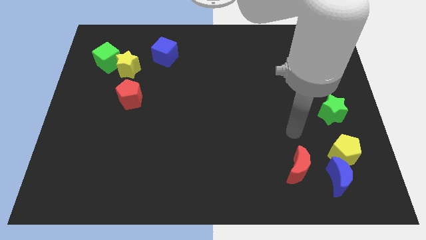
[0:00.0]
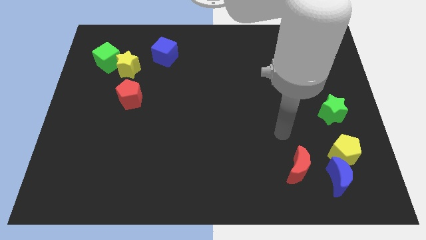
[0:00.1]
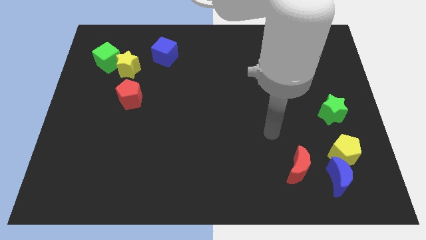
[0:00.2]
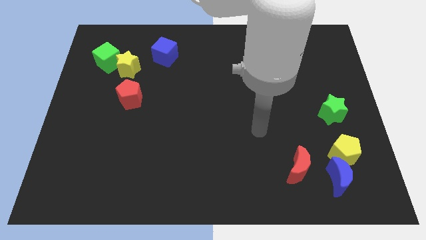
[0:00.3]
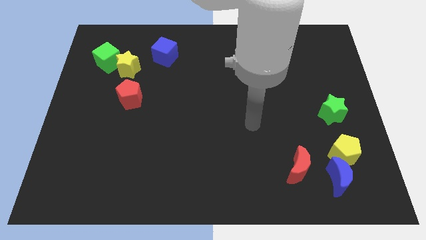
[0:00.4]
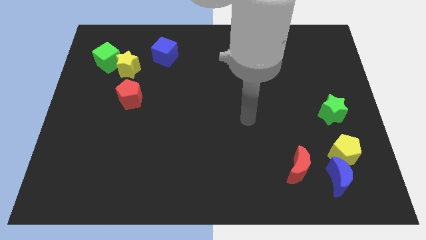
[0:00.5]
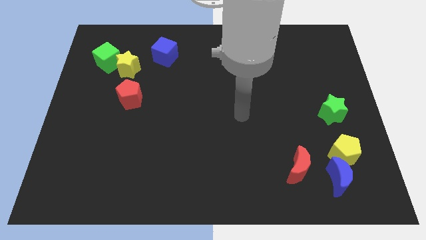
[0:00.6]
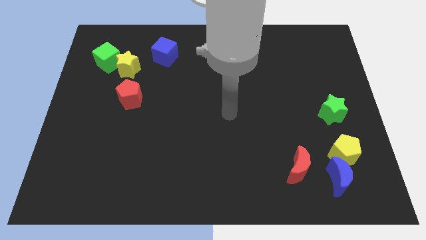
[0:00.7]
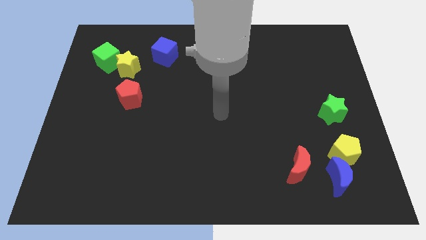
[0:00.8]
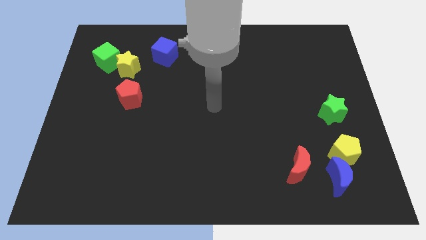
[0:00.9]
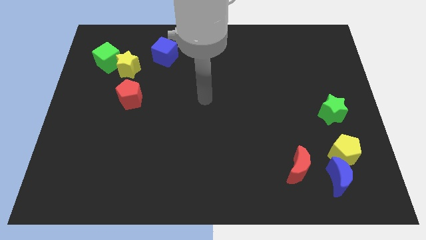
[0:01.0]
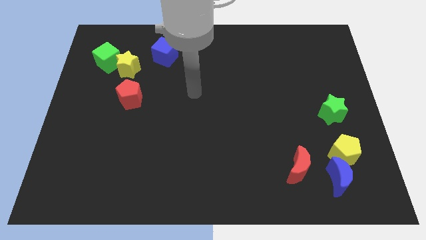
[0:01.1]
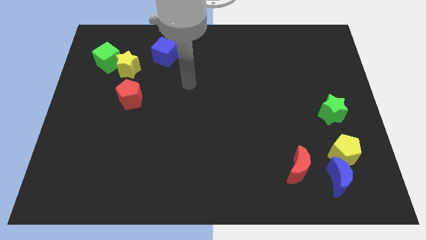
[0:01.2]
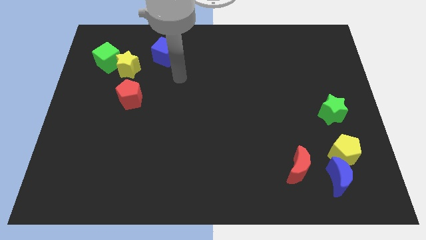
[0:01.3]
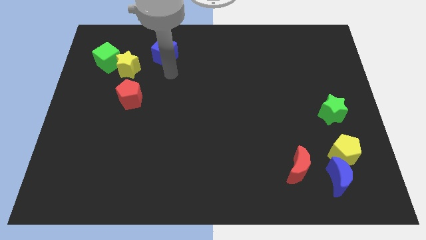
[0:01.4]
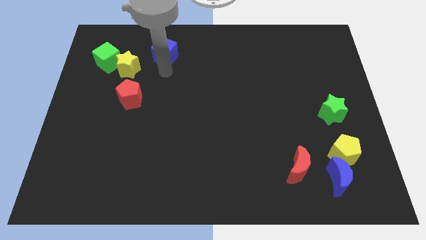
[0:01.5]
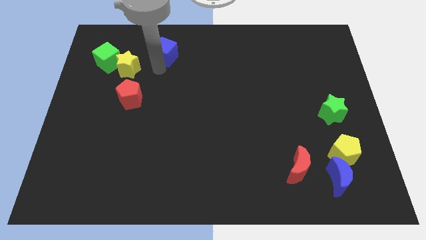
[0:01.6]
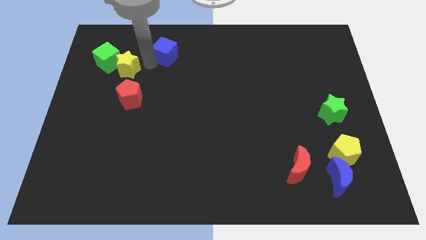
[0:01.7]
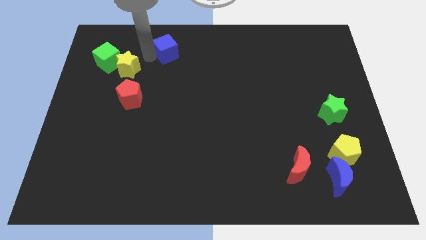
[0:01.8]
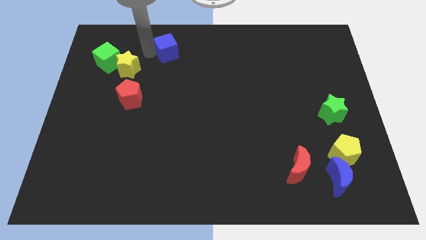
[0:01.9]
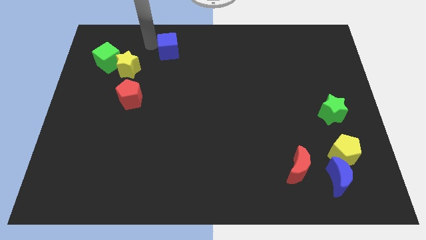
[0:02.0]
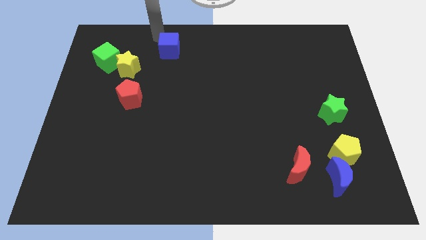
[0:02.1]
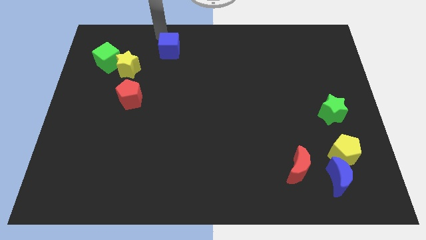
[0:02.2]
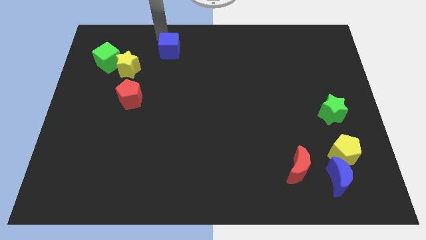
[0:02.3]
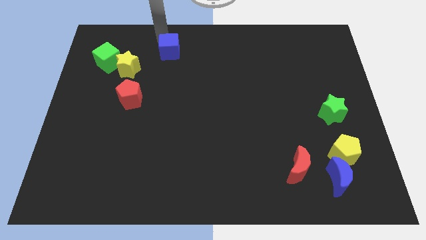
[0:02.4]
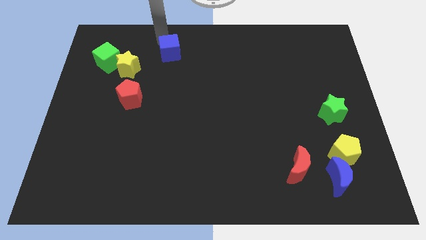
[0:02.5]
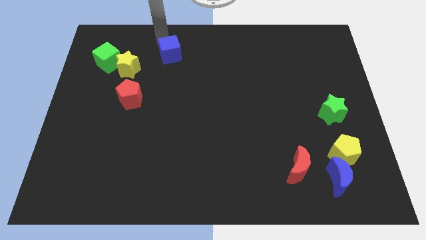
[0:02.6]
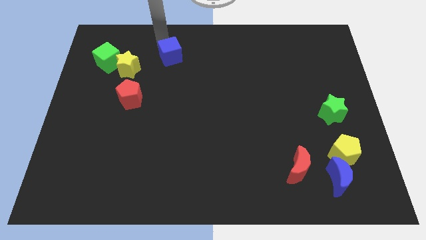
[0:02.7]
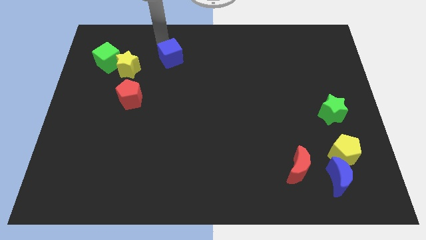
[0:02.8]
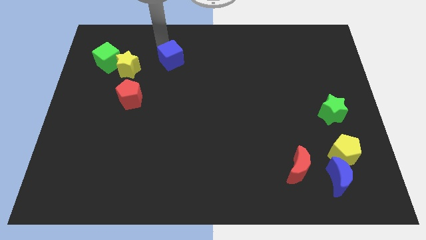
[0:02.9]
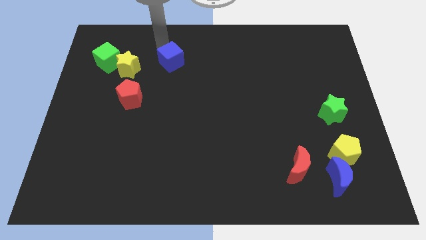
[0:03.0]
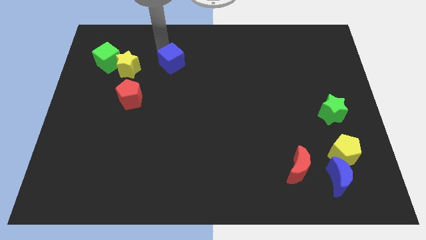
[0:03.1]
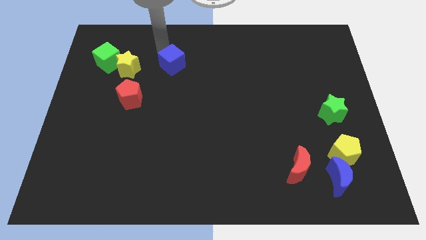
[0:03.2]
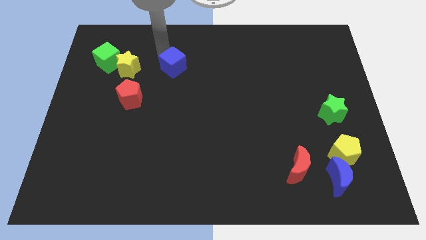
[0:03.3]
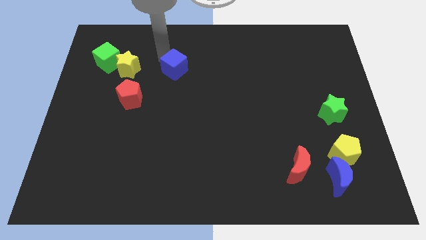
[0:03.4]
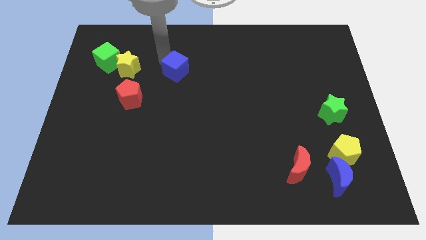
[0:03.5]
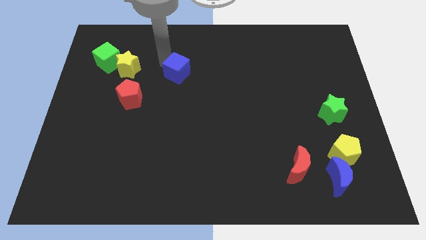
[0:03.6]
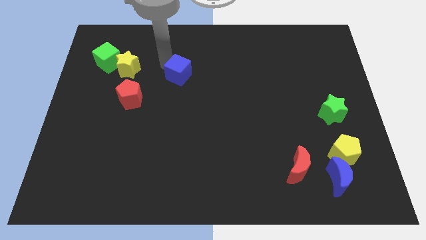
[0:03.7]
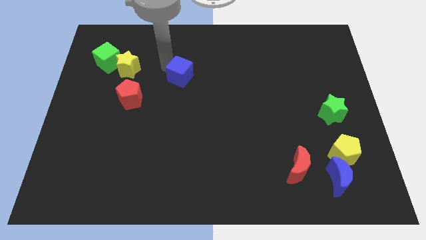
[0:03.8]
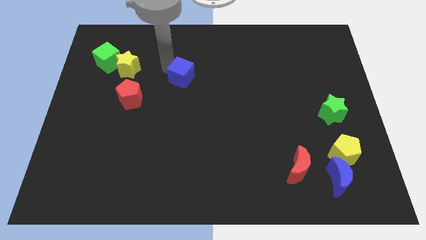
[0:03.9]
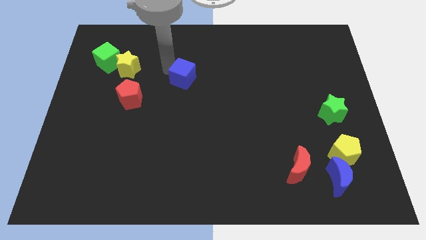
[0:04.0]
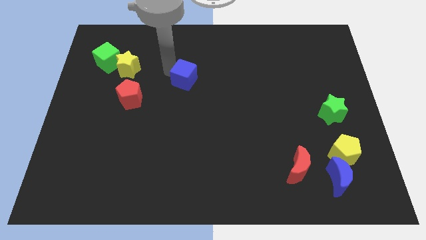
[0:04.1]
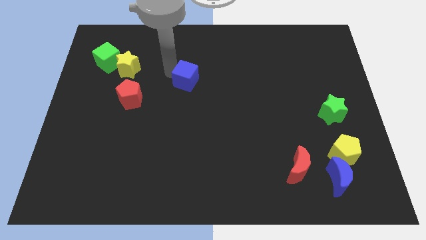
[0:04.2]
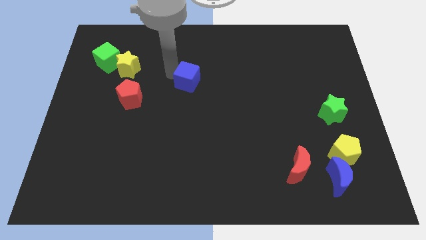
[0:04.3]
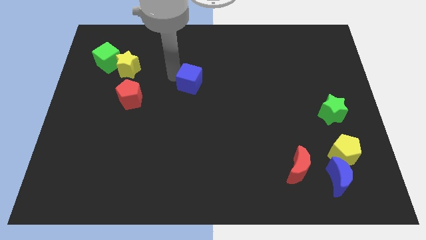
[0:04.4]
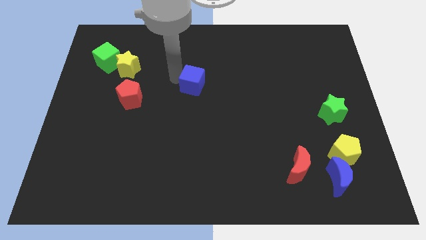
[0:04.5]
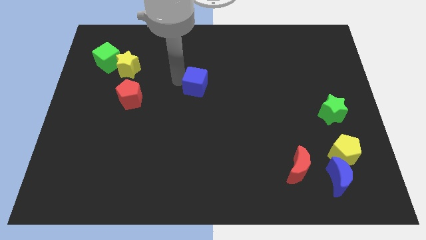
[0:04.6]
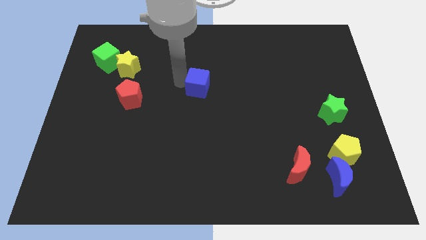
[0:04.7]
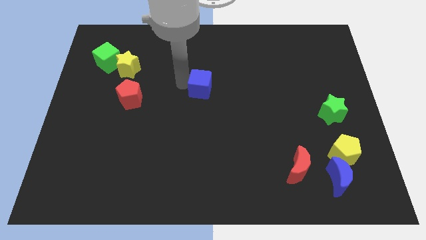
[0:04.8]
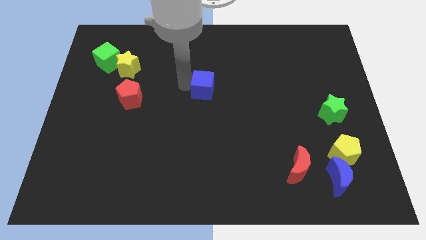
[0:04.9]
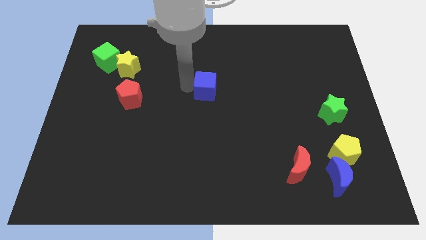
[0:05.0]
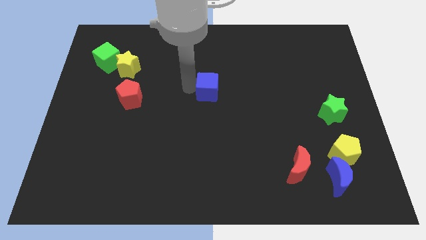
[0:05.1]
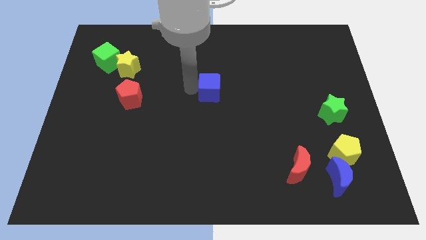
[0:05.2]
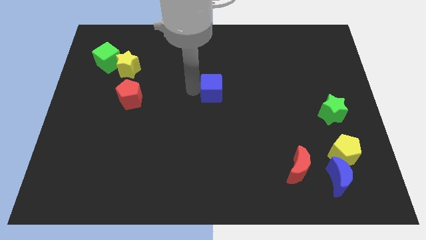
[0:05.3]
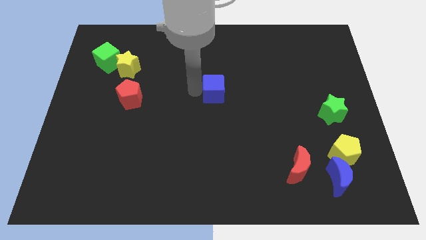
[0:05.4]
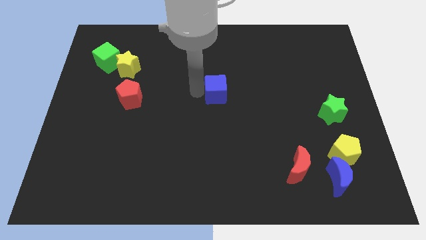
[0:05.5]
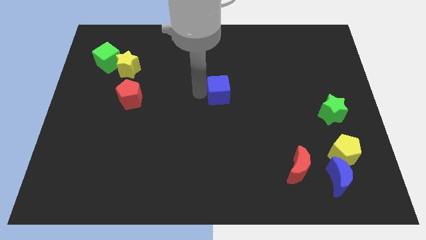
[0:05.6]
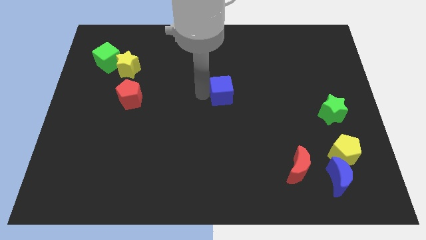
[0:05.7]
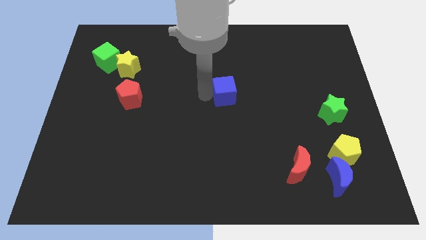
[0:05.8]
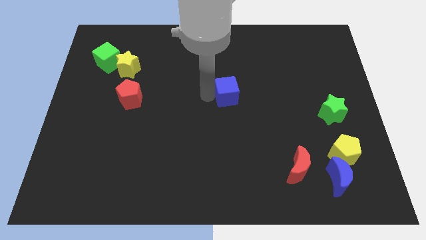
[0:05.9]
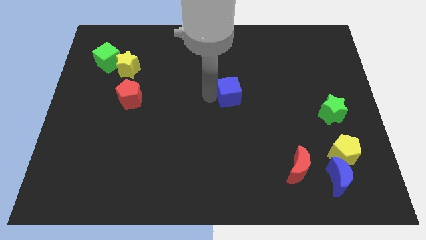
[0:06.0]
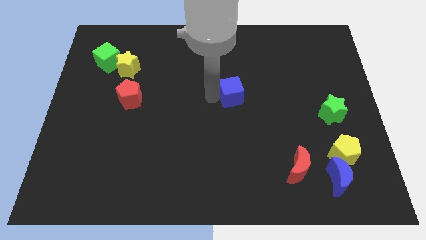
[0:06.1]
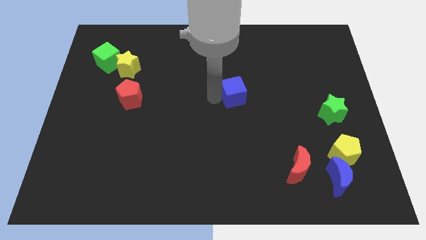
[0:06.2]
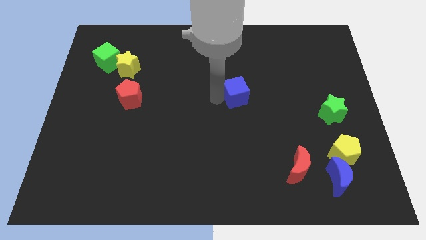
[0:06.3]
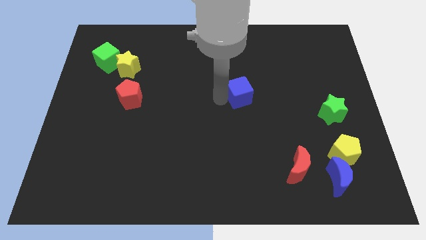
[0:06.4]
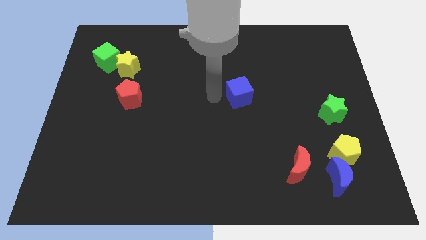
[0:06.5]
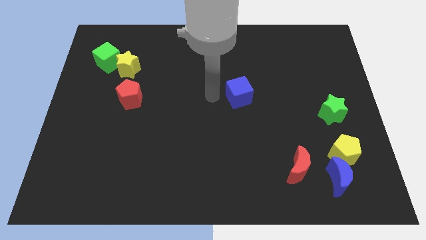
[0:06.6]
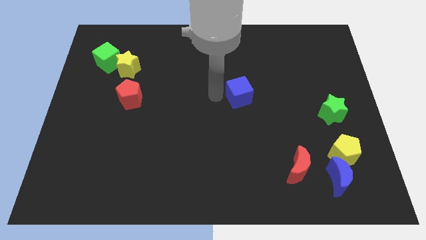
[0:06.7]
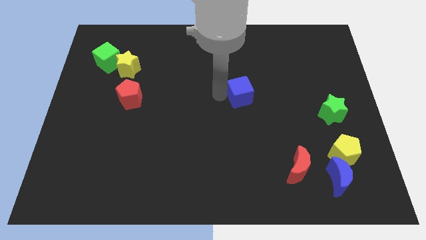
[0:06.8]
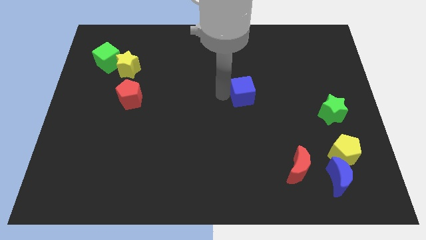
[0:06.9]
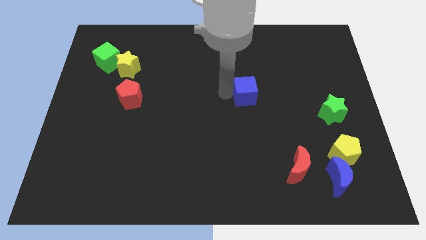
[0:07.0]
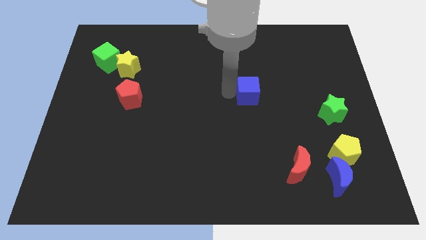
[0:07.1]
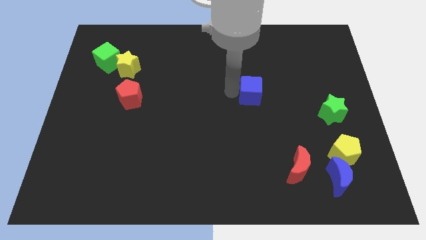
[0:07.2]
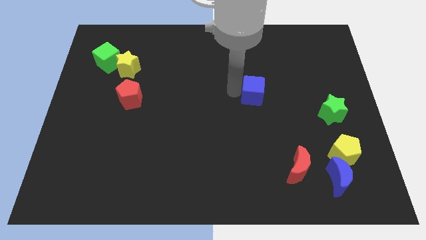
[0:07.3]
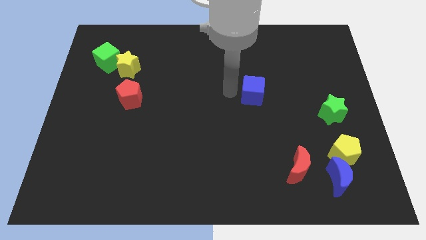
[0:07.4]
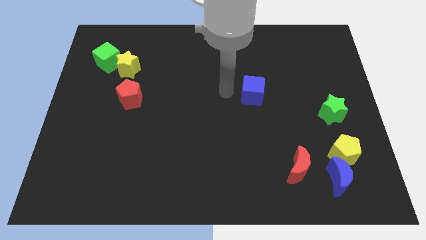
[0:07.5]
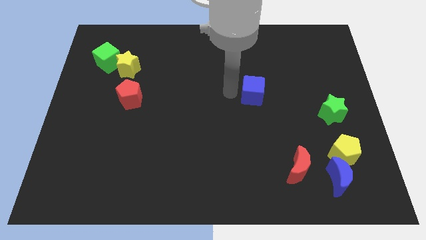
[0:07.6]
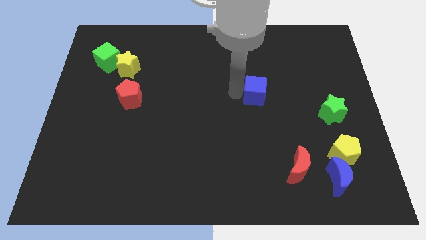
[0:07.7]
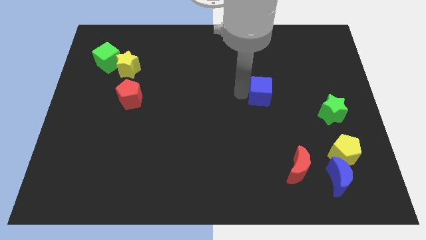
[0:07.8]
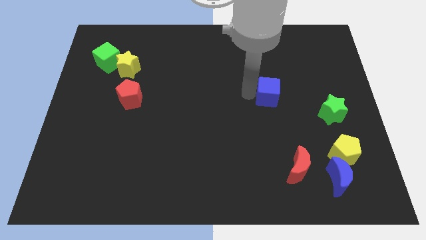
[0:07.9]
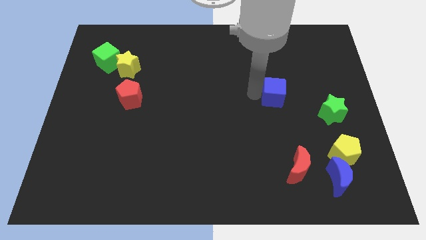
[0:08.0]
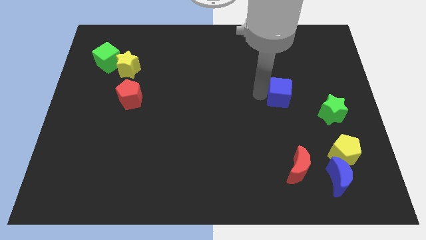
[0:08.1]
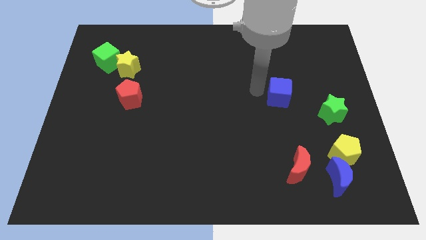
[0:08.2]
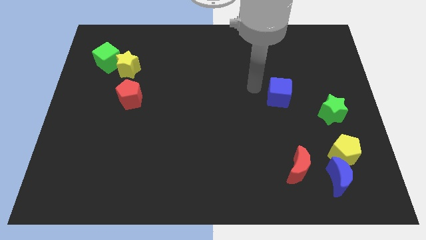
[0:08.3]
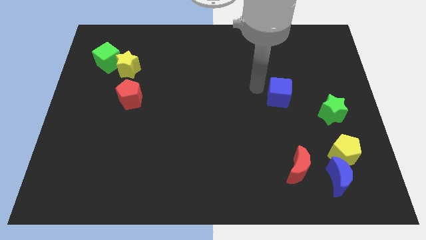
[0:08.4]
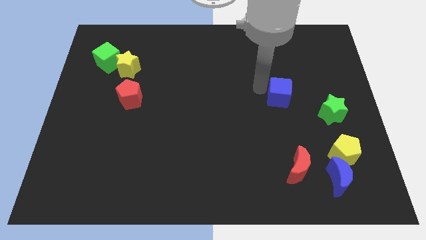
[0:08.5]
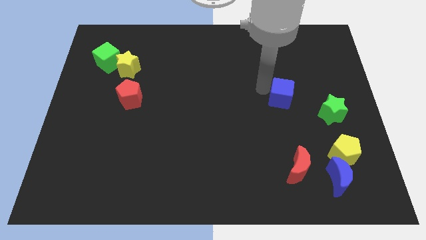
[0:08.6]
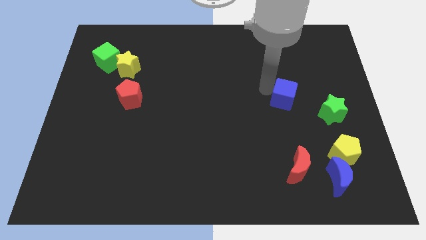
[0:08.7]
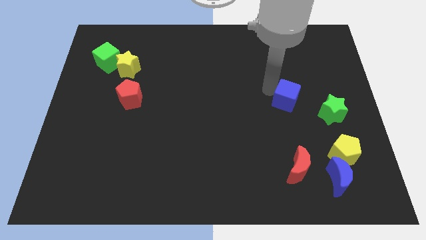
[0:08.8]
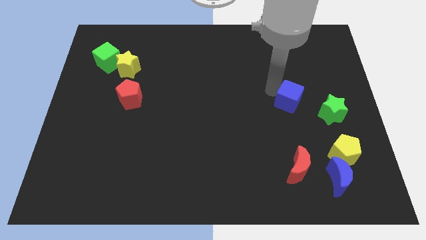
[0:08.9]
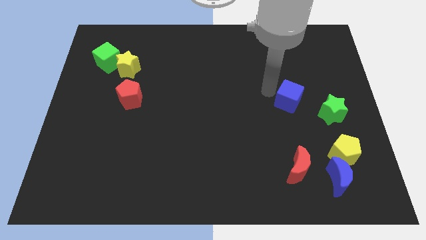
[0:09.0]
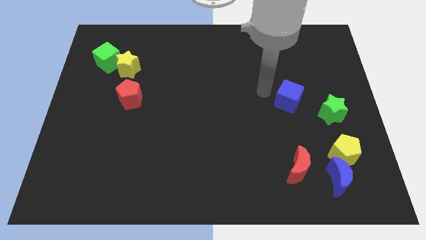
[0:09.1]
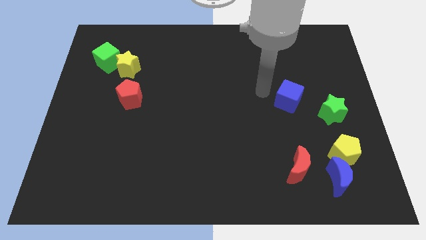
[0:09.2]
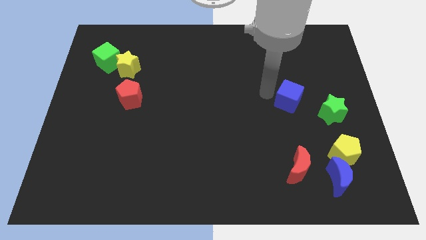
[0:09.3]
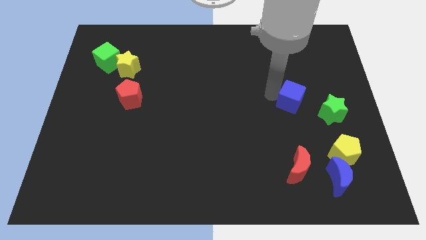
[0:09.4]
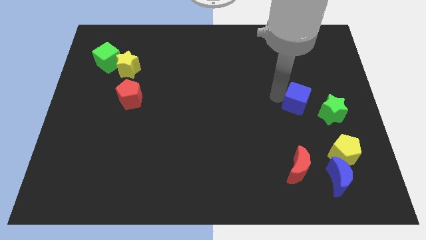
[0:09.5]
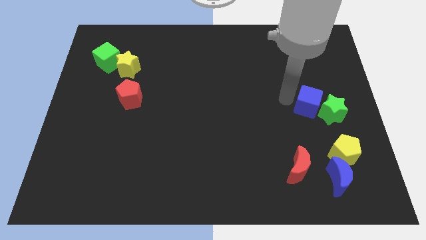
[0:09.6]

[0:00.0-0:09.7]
slide the blue cube next to the green star
